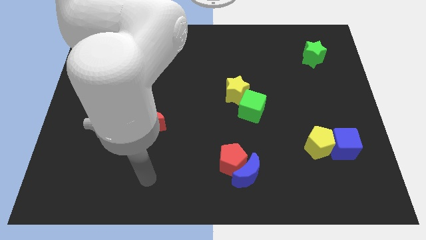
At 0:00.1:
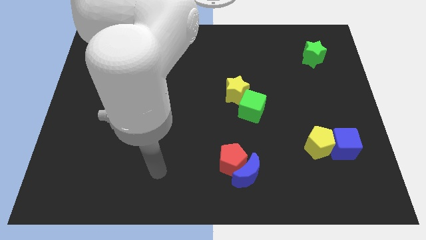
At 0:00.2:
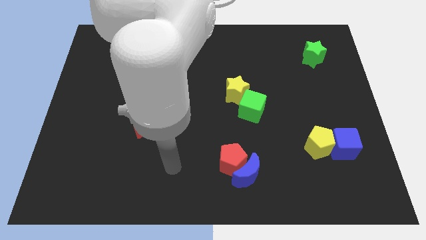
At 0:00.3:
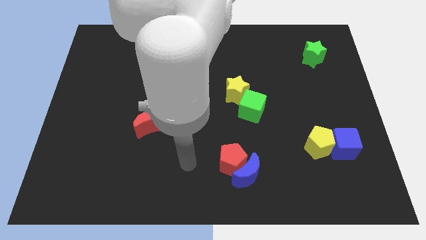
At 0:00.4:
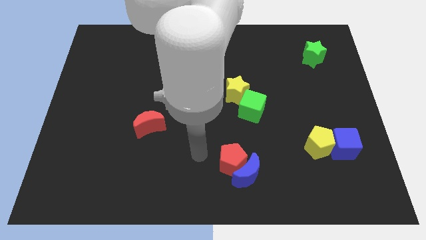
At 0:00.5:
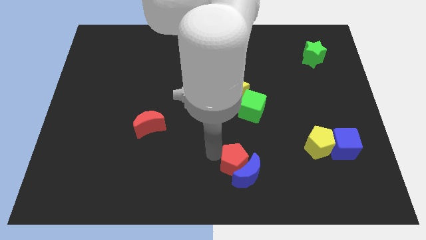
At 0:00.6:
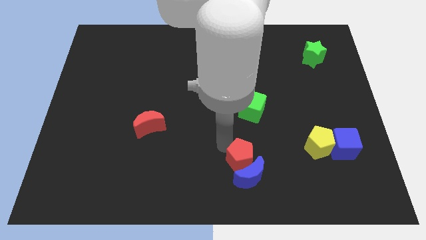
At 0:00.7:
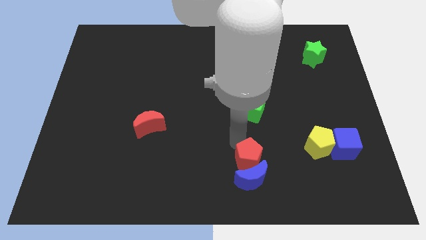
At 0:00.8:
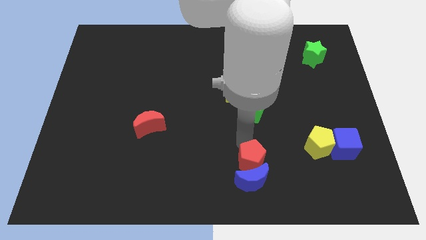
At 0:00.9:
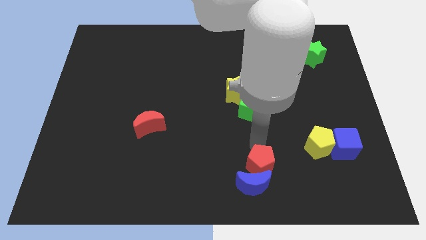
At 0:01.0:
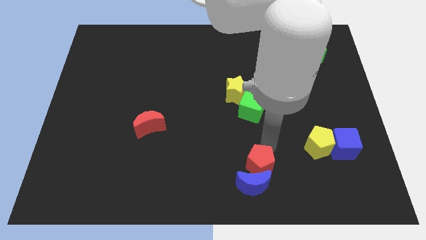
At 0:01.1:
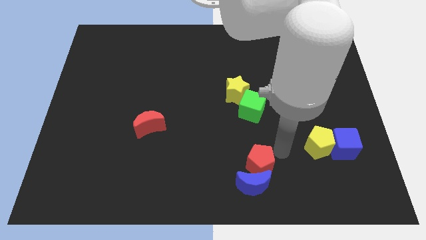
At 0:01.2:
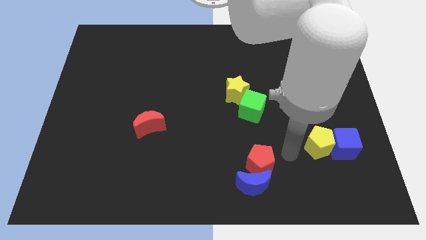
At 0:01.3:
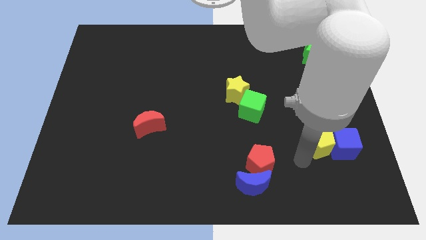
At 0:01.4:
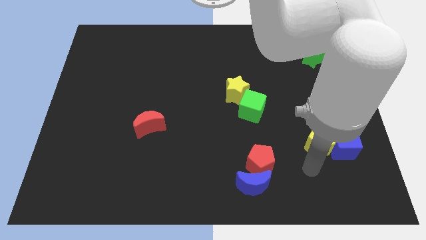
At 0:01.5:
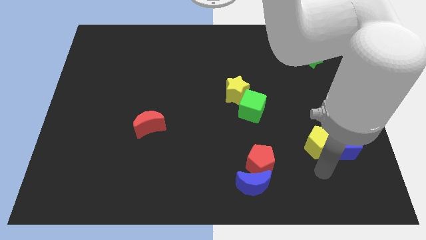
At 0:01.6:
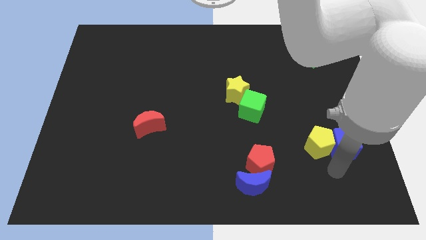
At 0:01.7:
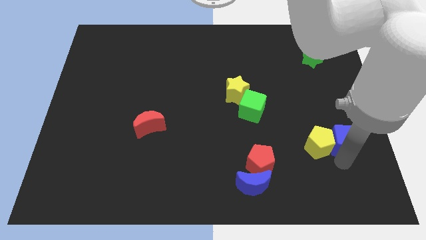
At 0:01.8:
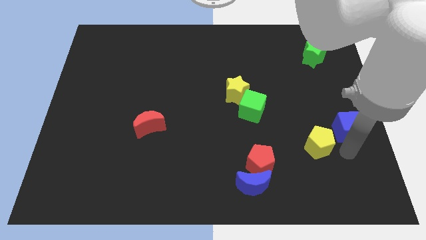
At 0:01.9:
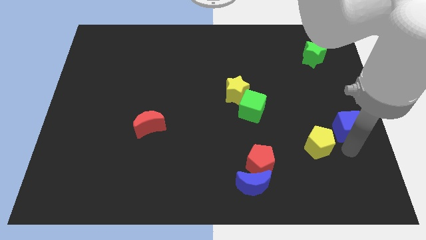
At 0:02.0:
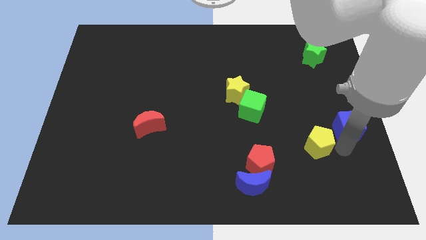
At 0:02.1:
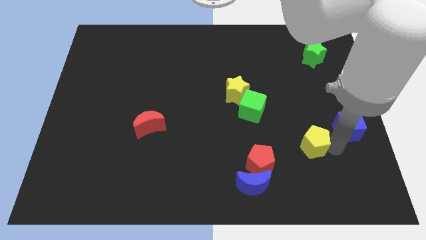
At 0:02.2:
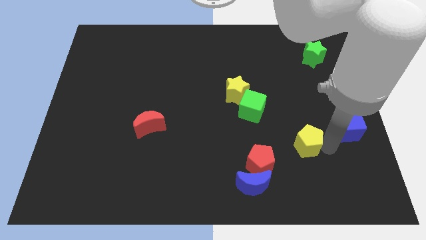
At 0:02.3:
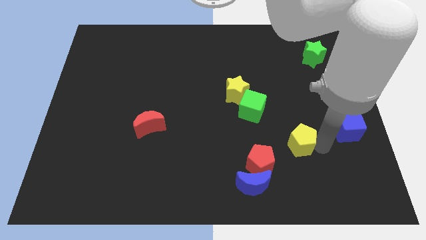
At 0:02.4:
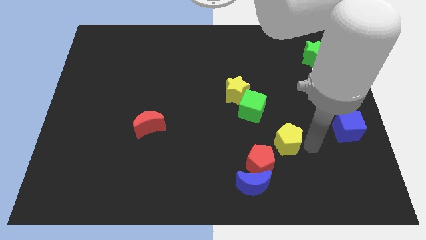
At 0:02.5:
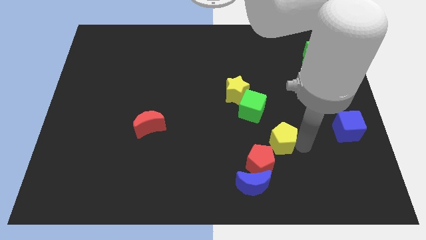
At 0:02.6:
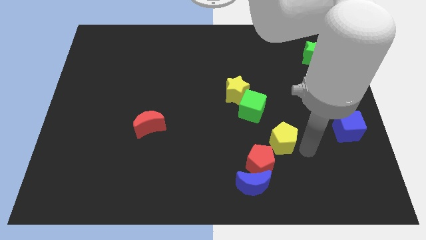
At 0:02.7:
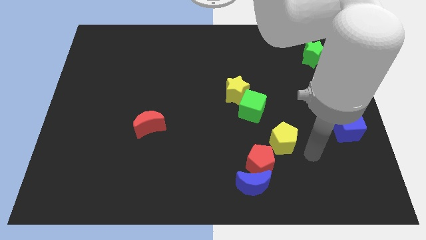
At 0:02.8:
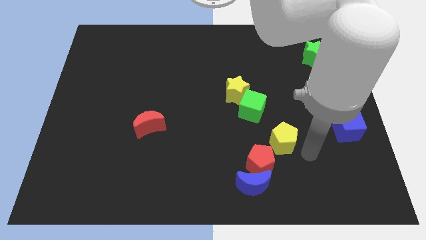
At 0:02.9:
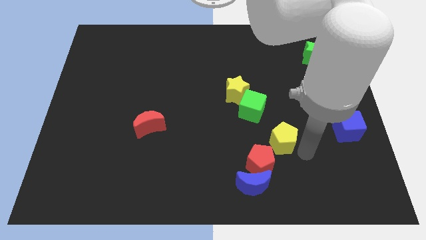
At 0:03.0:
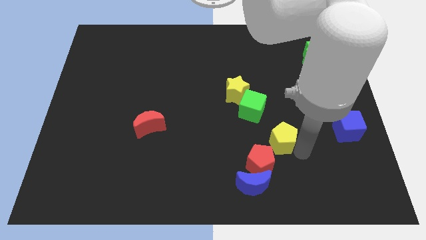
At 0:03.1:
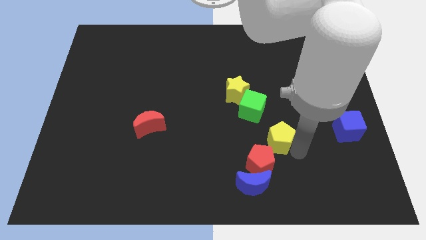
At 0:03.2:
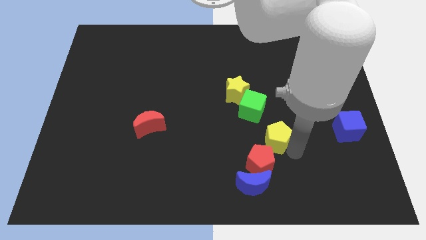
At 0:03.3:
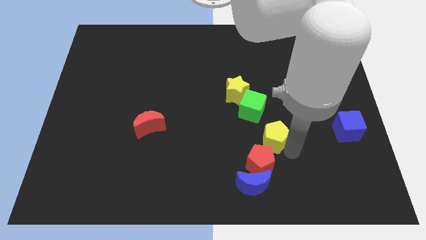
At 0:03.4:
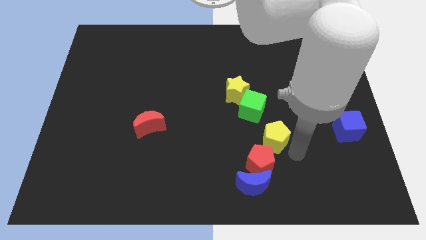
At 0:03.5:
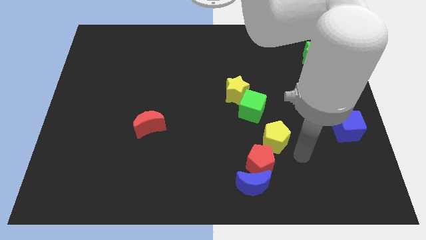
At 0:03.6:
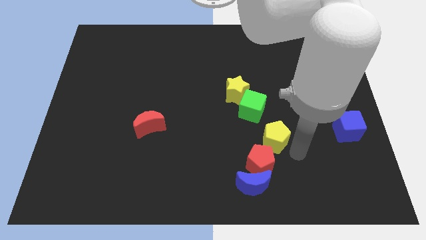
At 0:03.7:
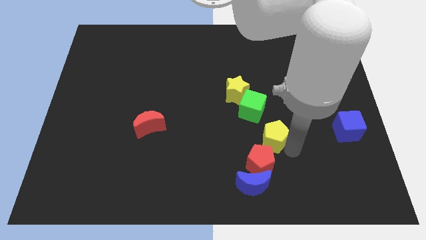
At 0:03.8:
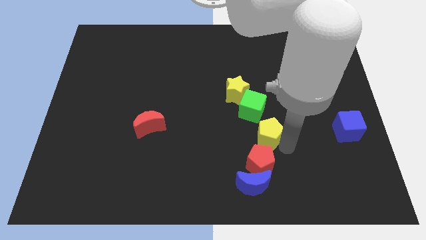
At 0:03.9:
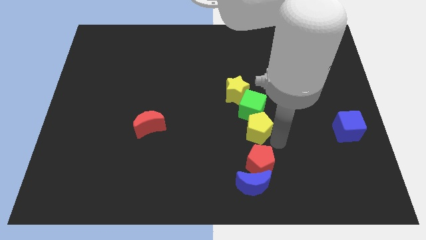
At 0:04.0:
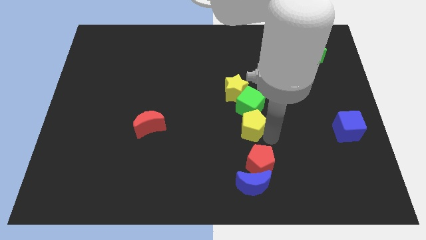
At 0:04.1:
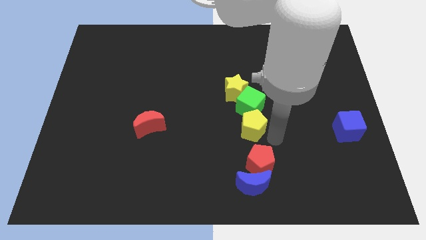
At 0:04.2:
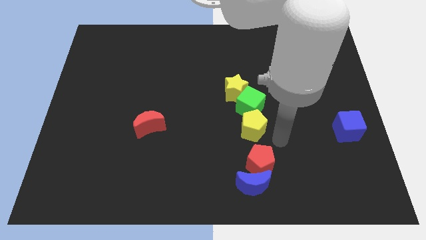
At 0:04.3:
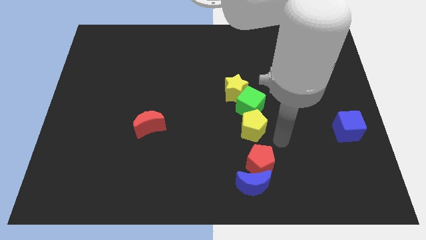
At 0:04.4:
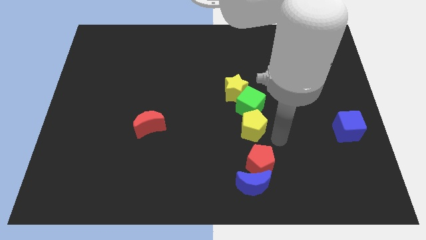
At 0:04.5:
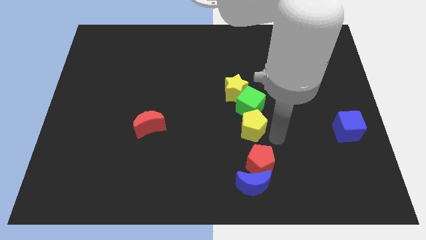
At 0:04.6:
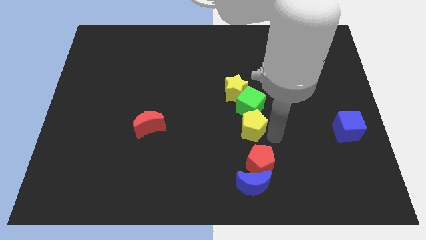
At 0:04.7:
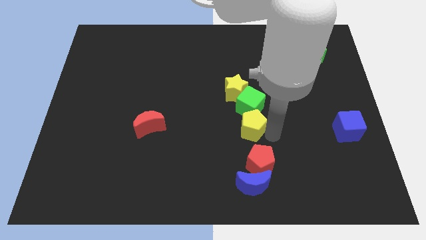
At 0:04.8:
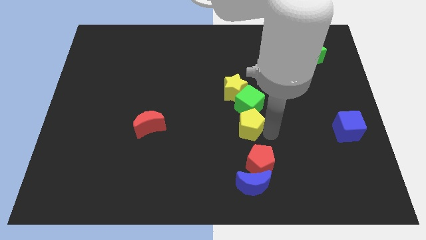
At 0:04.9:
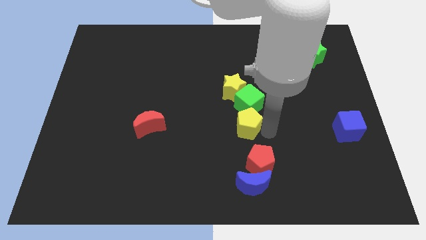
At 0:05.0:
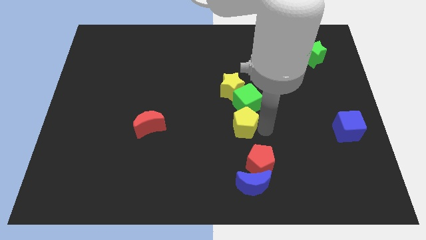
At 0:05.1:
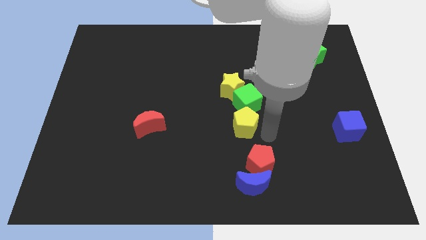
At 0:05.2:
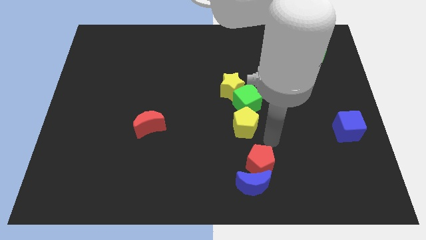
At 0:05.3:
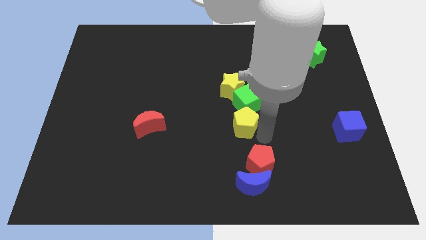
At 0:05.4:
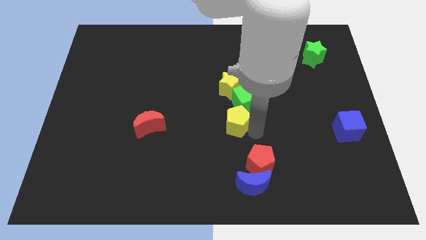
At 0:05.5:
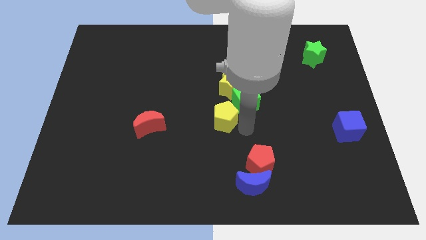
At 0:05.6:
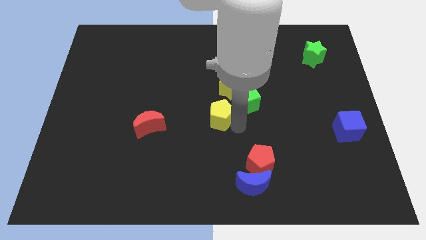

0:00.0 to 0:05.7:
slide the yellow pentagon to the bottom left side of the yellow star

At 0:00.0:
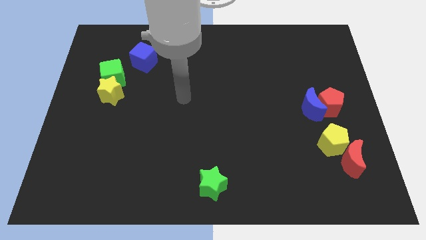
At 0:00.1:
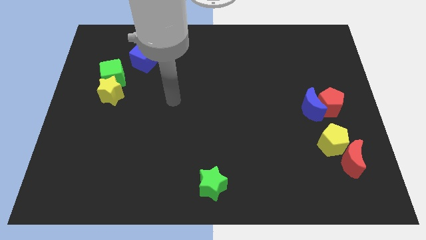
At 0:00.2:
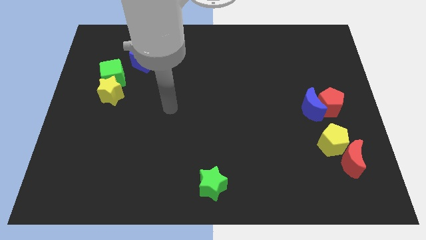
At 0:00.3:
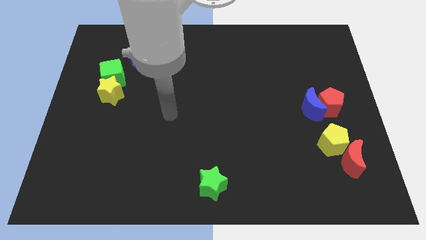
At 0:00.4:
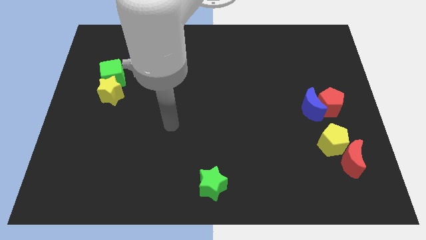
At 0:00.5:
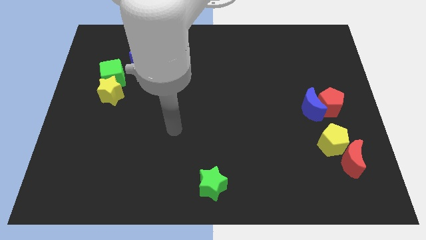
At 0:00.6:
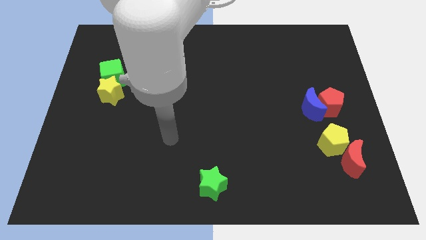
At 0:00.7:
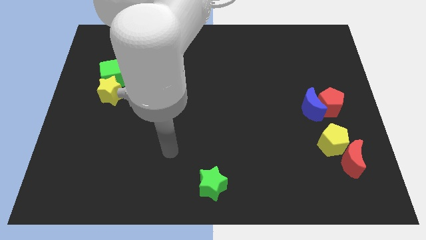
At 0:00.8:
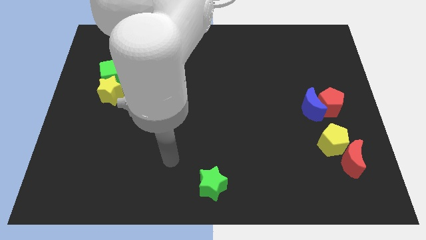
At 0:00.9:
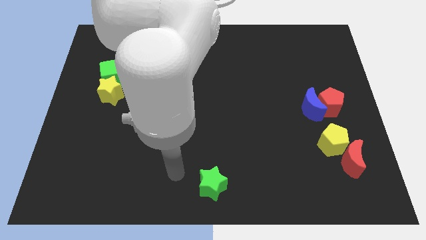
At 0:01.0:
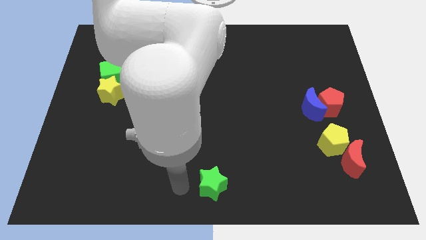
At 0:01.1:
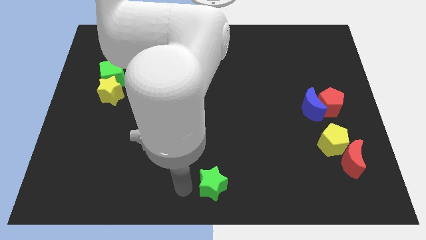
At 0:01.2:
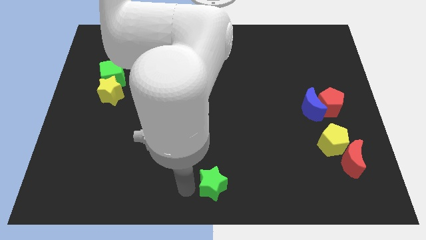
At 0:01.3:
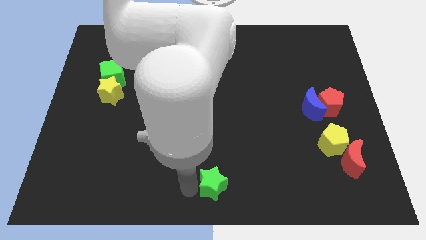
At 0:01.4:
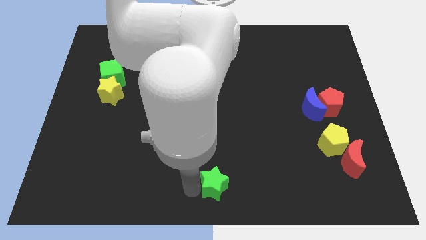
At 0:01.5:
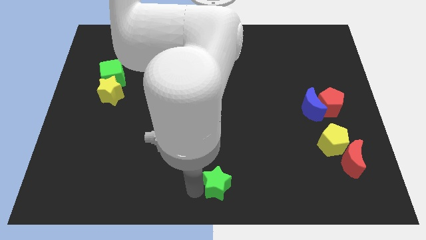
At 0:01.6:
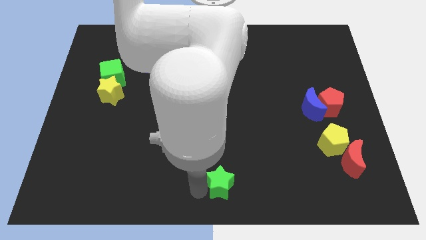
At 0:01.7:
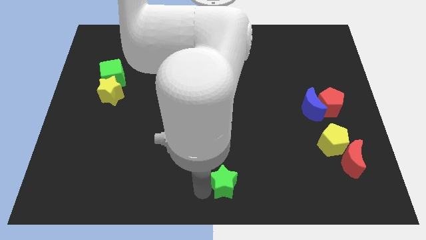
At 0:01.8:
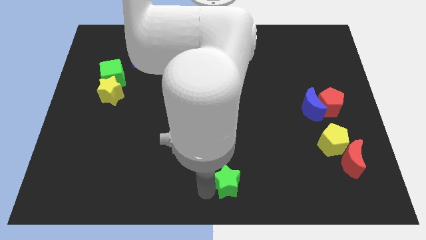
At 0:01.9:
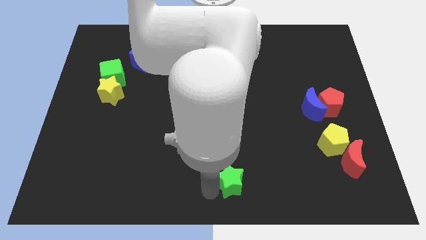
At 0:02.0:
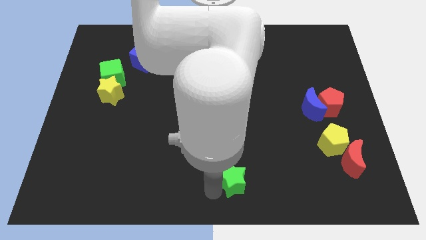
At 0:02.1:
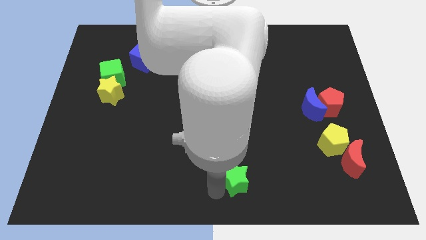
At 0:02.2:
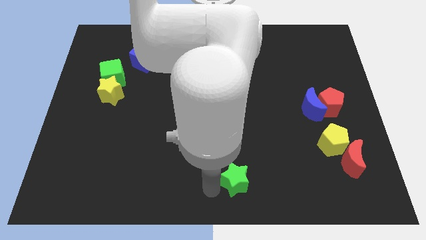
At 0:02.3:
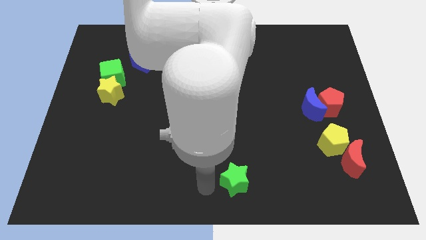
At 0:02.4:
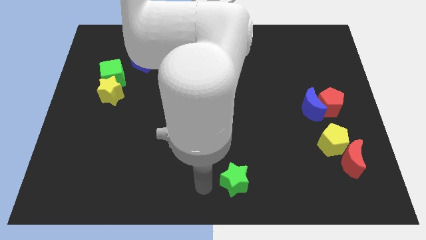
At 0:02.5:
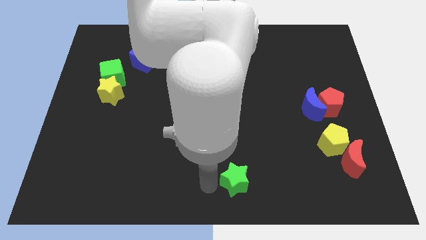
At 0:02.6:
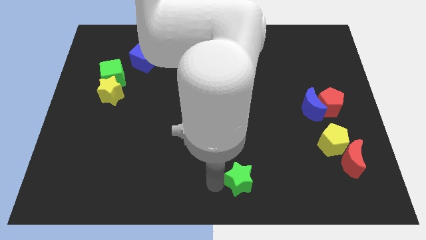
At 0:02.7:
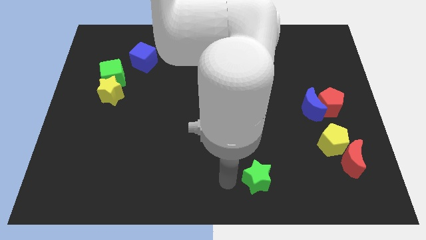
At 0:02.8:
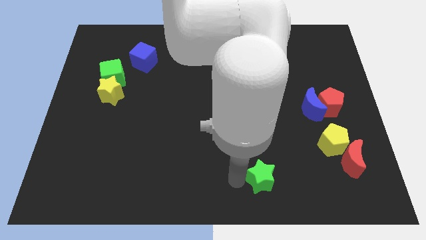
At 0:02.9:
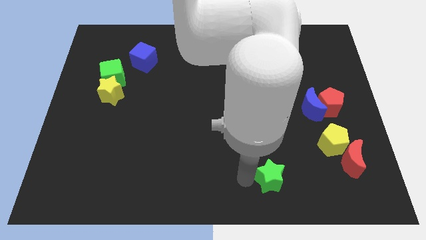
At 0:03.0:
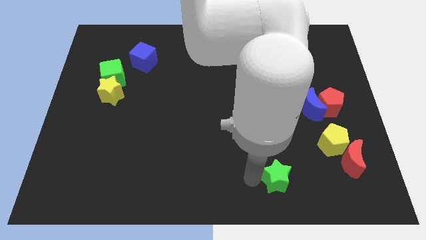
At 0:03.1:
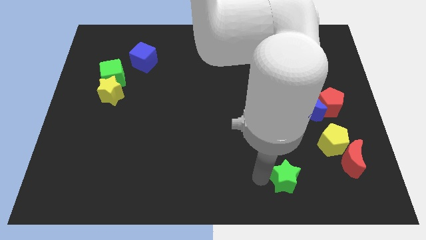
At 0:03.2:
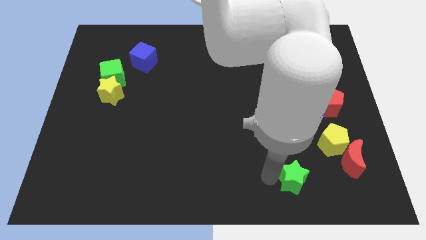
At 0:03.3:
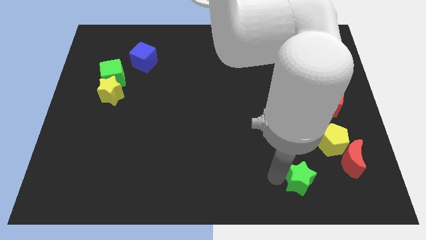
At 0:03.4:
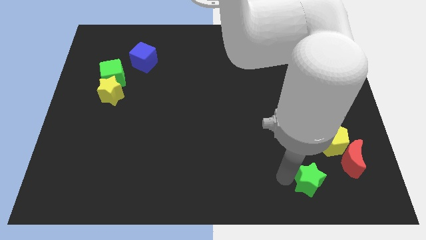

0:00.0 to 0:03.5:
move the green star to the bottom left of the red moon
